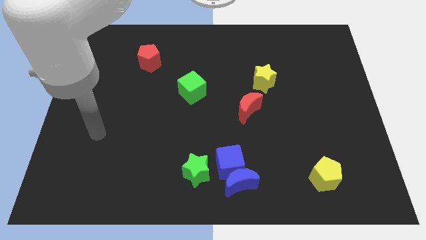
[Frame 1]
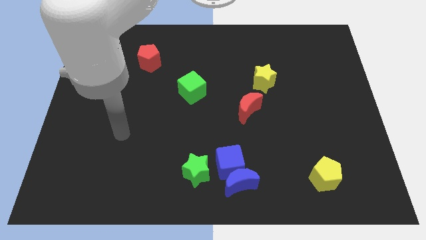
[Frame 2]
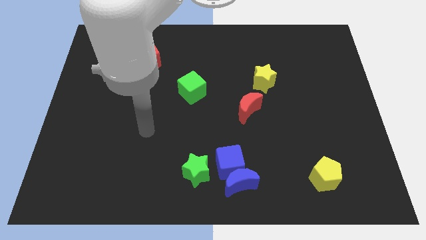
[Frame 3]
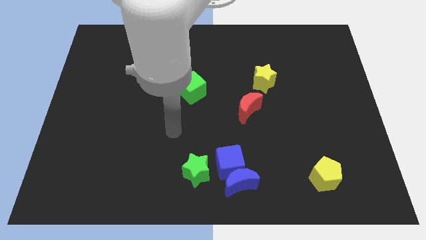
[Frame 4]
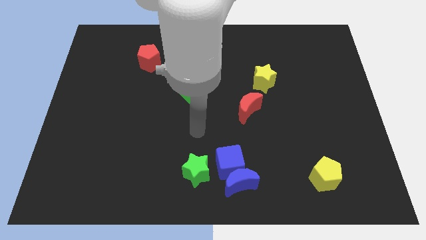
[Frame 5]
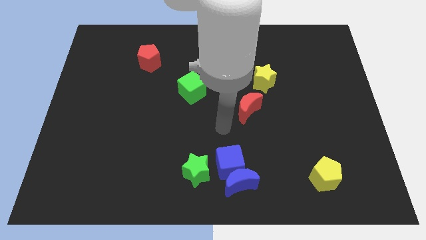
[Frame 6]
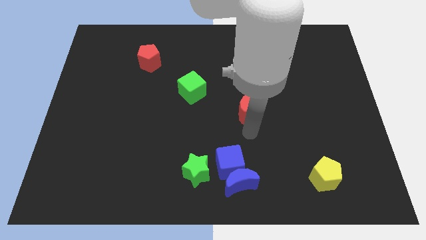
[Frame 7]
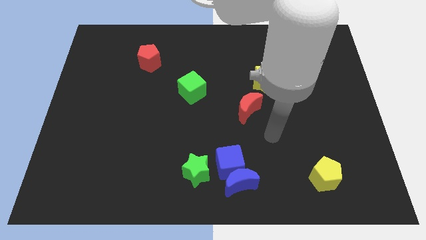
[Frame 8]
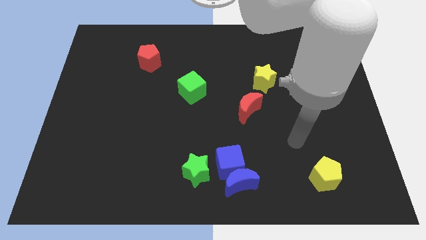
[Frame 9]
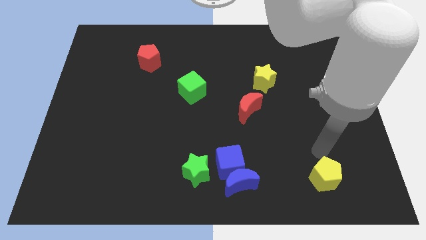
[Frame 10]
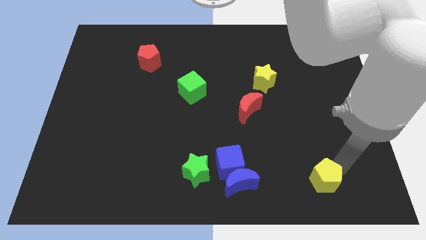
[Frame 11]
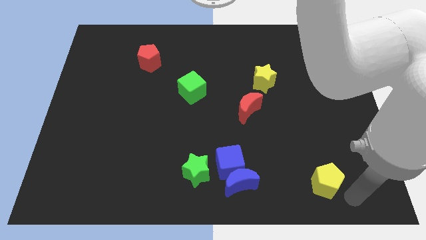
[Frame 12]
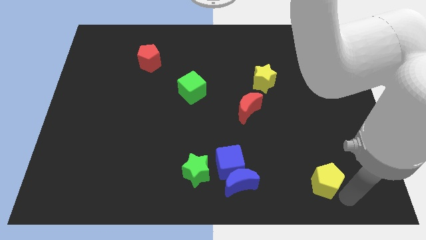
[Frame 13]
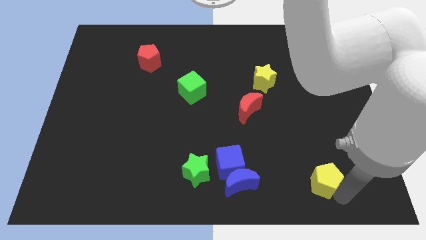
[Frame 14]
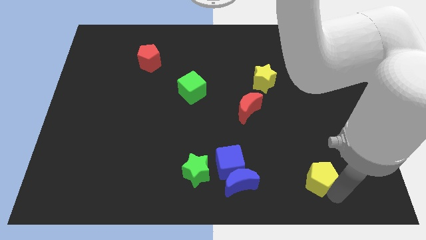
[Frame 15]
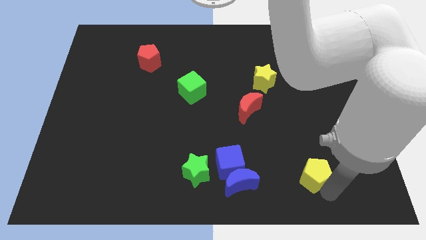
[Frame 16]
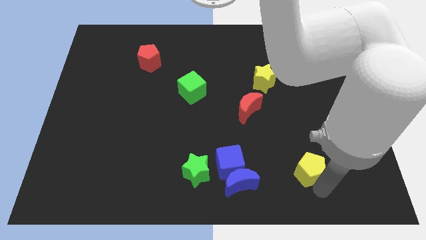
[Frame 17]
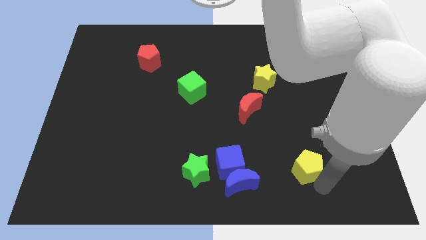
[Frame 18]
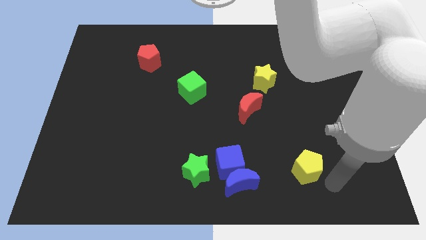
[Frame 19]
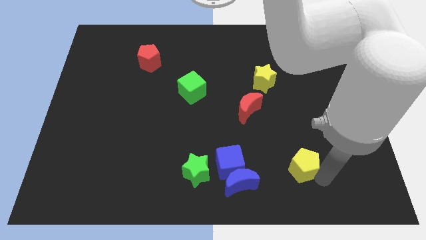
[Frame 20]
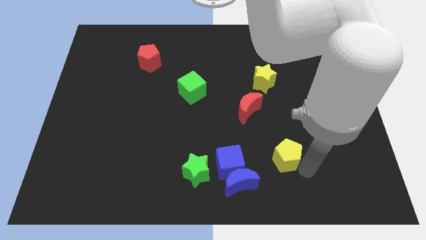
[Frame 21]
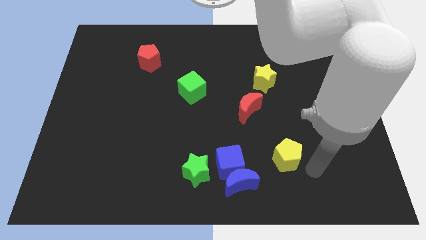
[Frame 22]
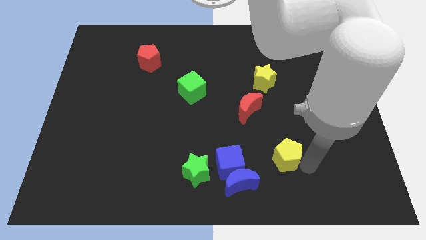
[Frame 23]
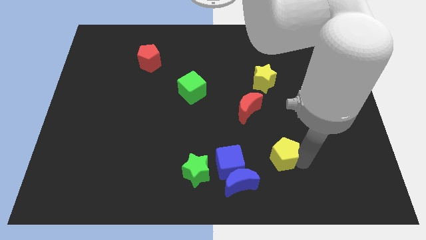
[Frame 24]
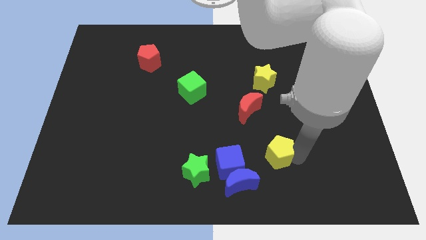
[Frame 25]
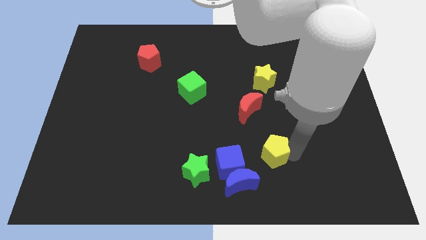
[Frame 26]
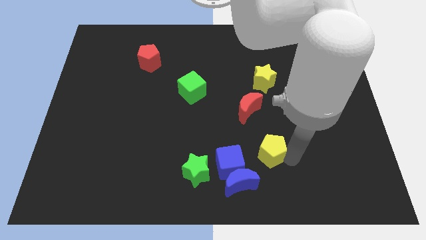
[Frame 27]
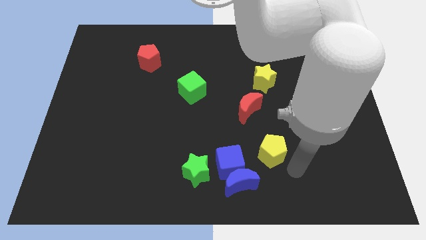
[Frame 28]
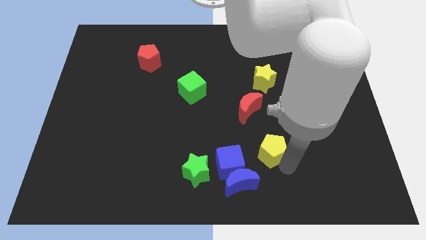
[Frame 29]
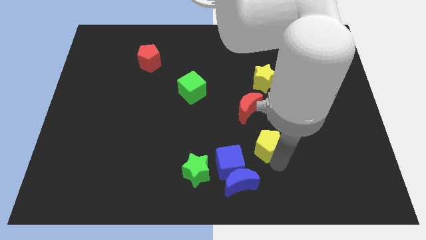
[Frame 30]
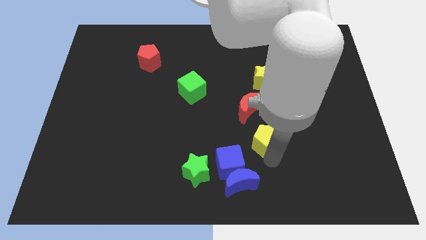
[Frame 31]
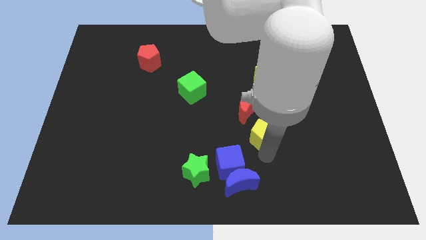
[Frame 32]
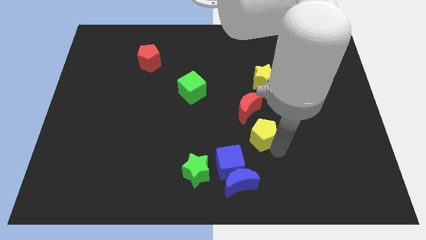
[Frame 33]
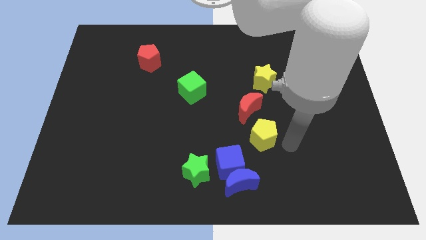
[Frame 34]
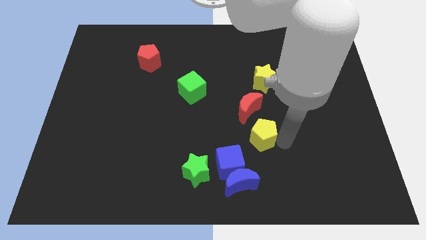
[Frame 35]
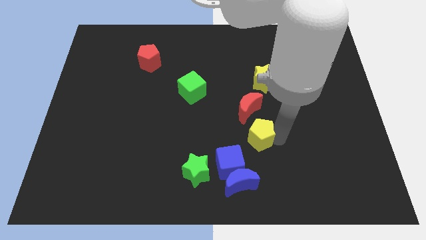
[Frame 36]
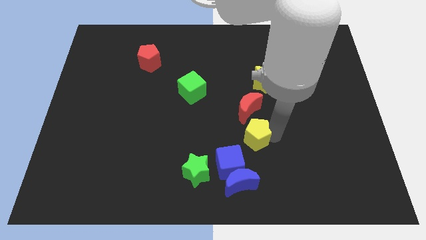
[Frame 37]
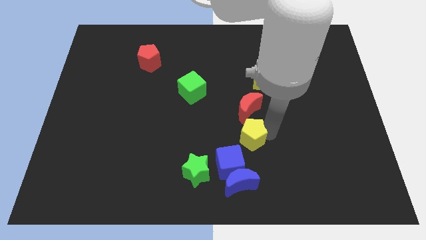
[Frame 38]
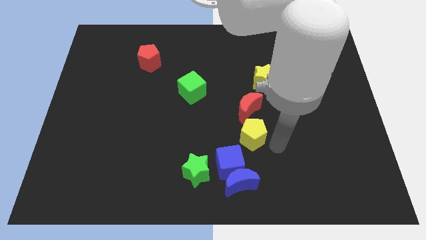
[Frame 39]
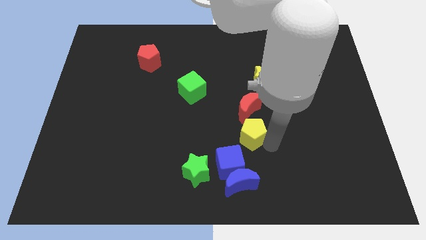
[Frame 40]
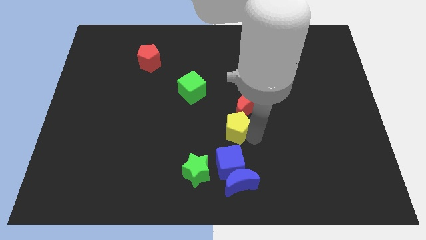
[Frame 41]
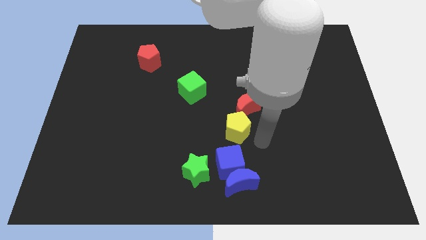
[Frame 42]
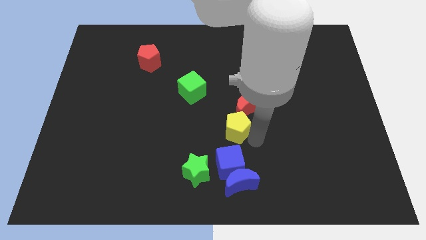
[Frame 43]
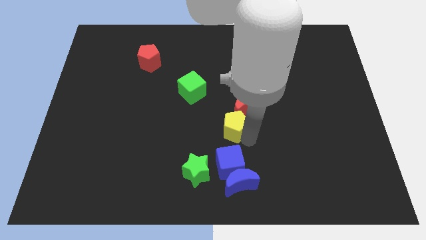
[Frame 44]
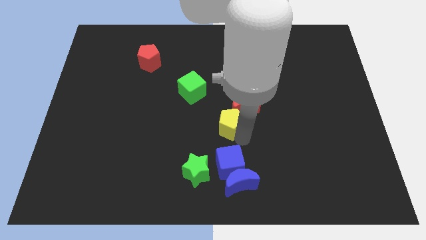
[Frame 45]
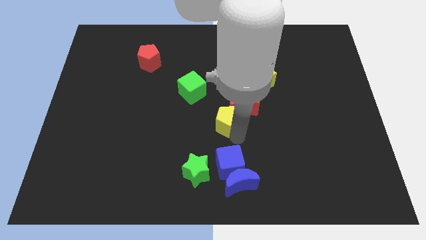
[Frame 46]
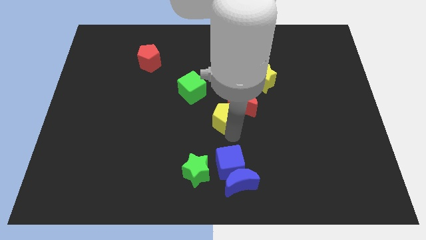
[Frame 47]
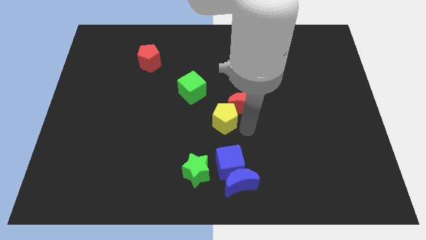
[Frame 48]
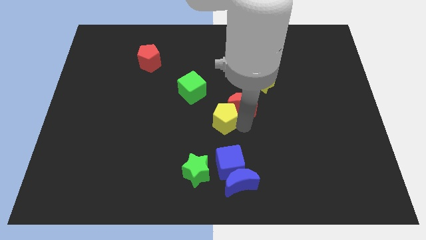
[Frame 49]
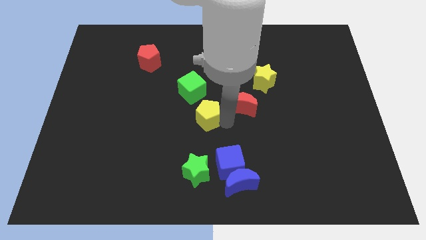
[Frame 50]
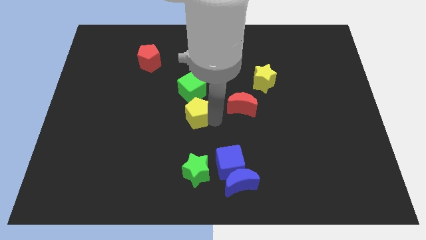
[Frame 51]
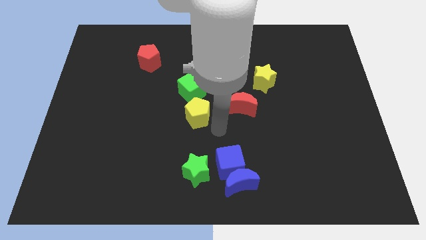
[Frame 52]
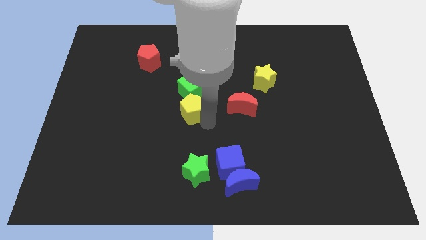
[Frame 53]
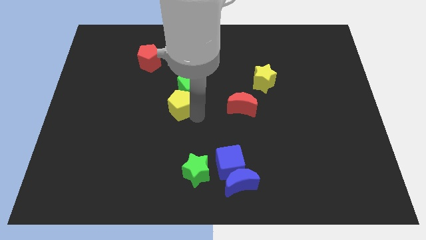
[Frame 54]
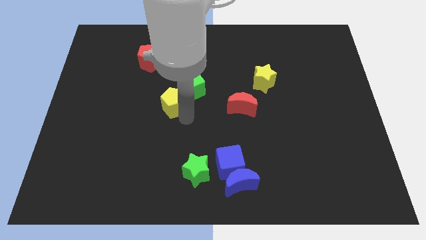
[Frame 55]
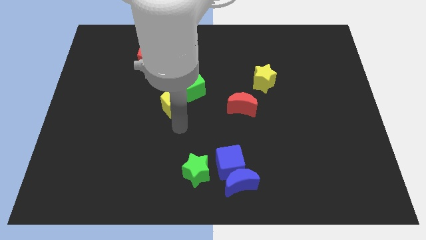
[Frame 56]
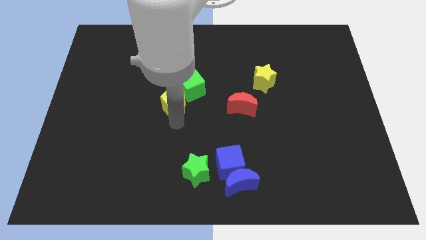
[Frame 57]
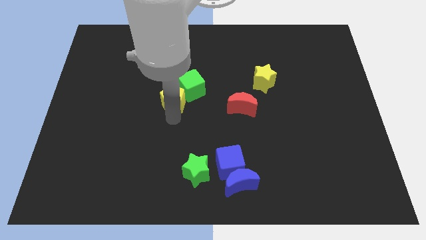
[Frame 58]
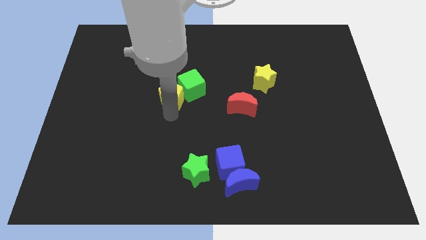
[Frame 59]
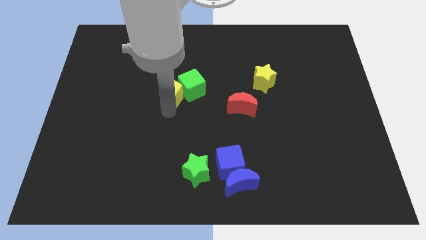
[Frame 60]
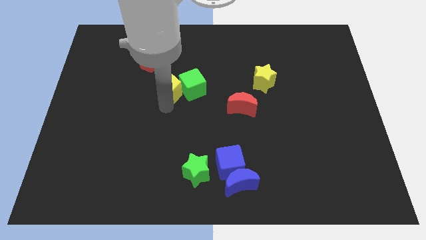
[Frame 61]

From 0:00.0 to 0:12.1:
slide the yellow pentagon diagonally down and to the right of the red pentagon
